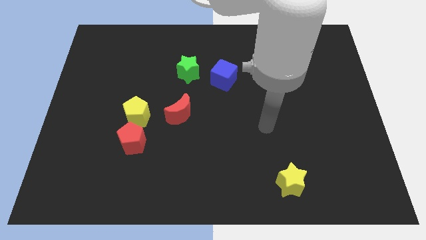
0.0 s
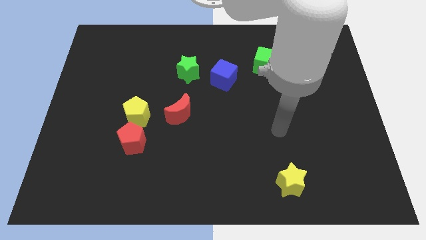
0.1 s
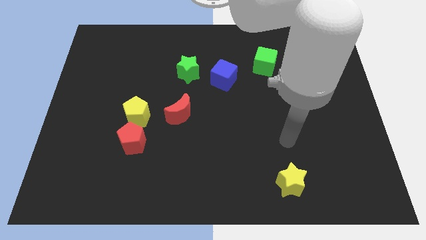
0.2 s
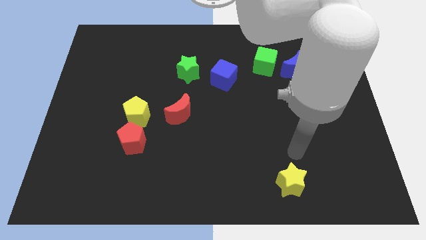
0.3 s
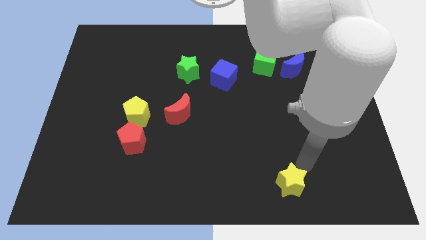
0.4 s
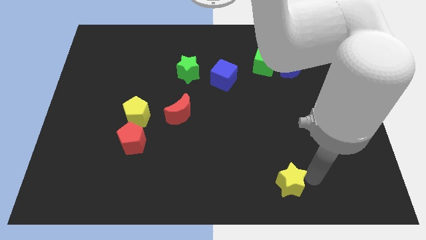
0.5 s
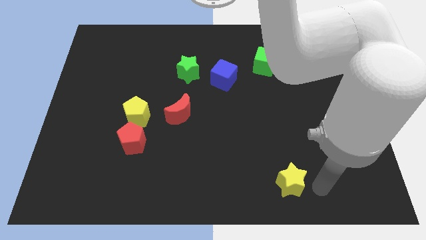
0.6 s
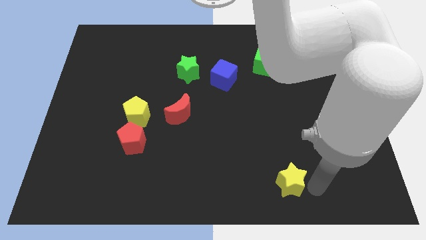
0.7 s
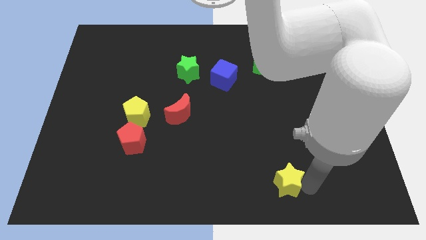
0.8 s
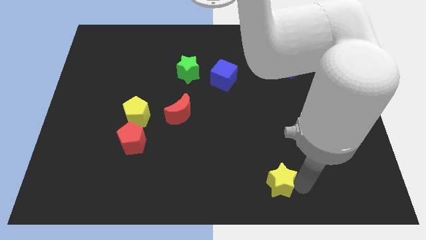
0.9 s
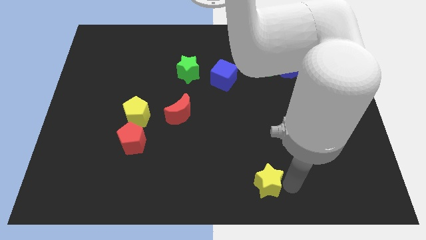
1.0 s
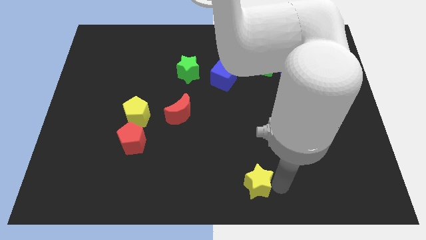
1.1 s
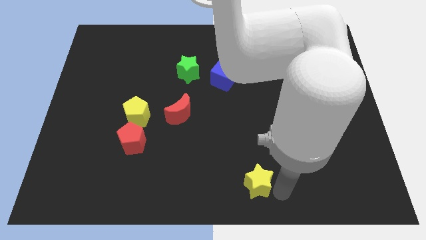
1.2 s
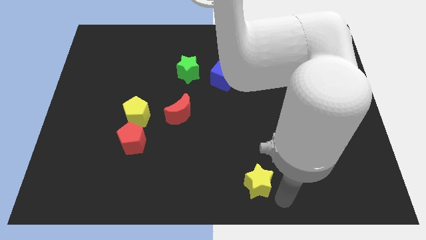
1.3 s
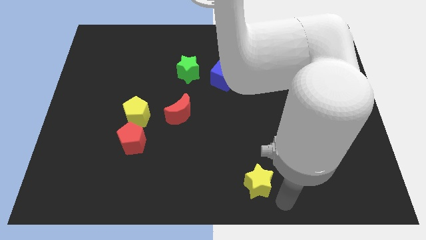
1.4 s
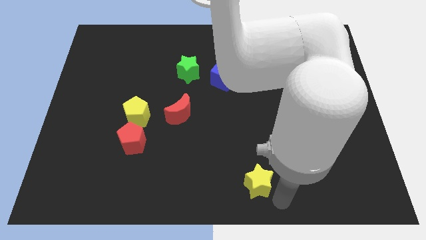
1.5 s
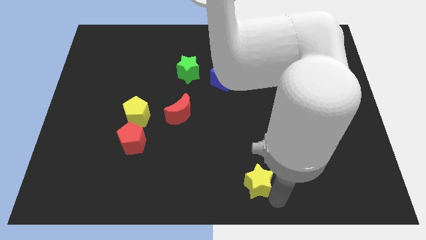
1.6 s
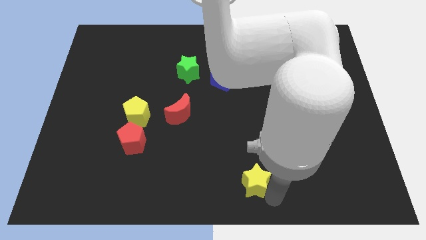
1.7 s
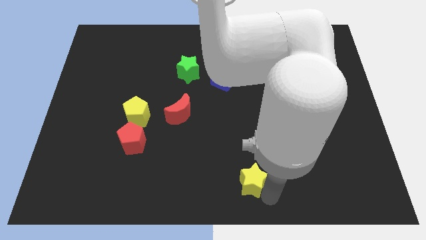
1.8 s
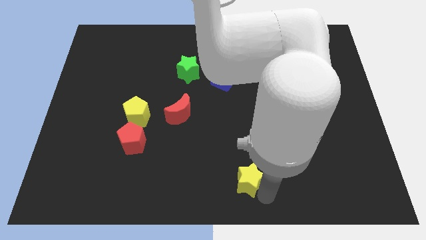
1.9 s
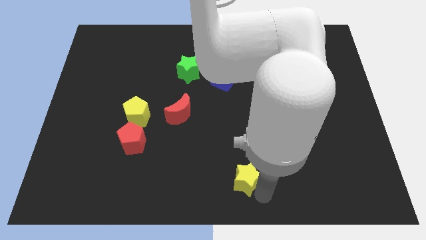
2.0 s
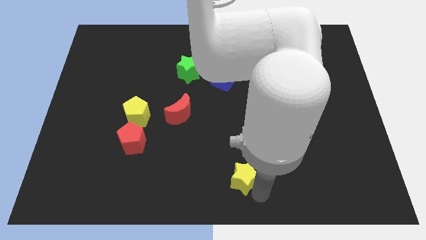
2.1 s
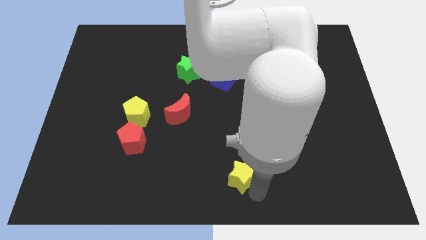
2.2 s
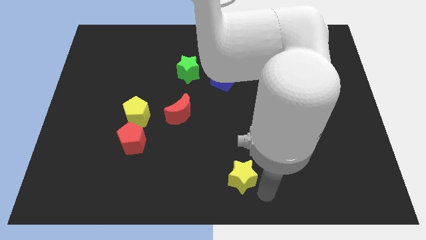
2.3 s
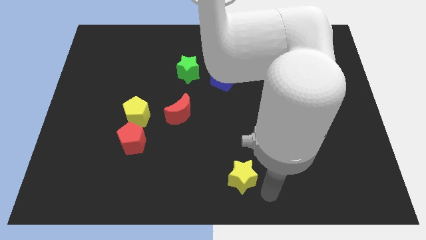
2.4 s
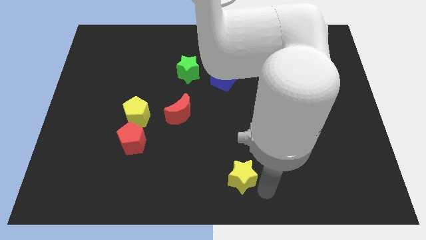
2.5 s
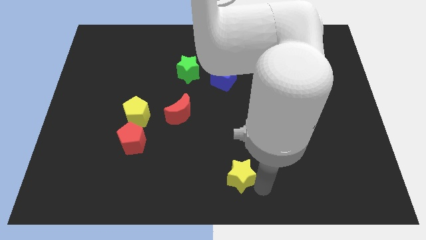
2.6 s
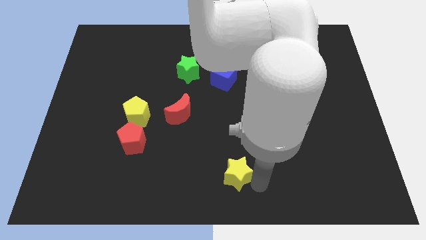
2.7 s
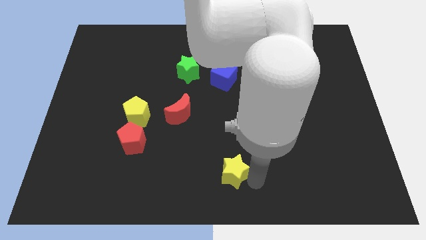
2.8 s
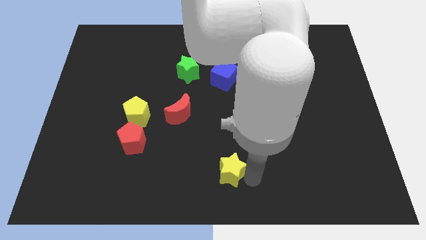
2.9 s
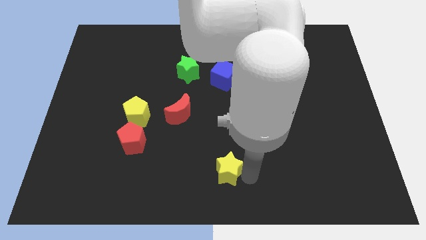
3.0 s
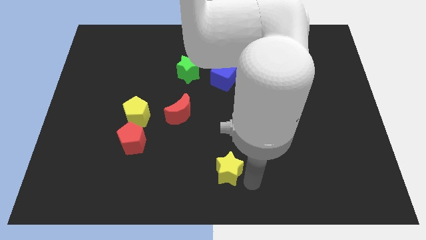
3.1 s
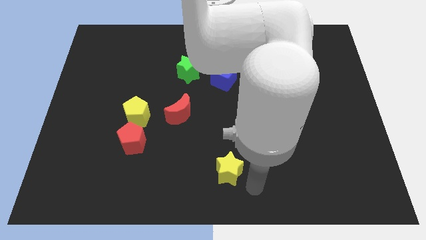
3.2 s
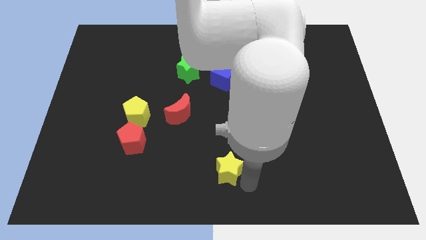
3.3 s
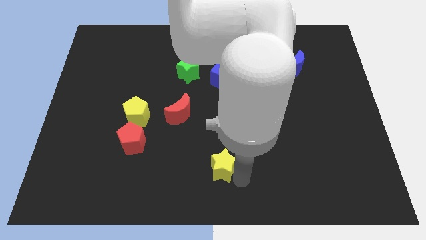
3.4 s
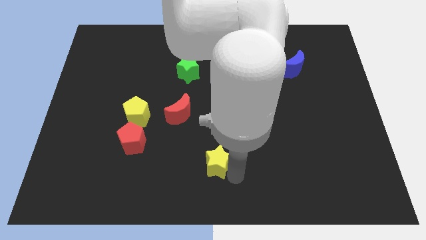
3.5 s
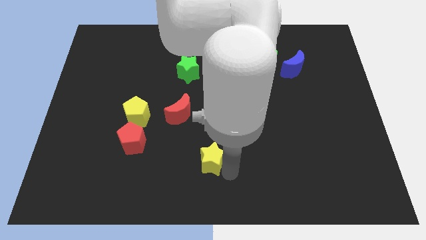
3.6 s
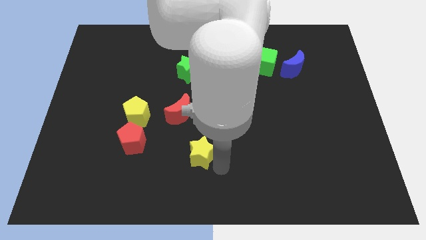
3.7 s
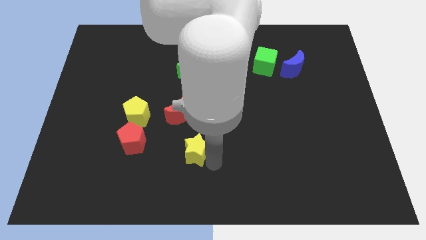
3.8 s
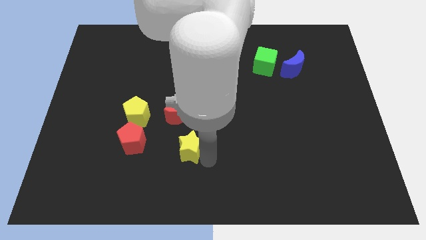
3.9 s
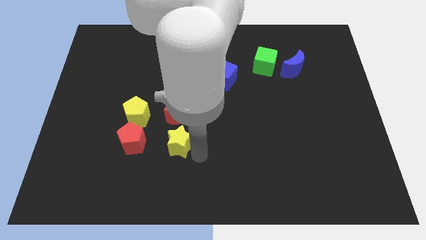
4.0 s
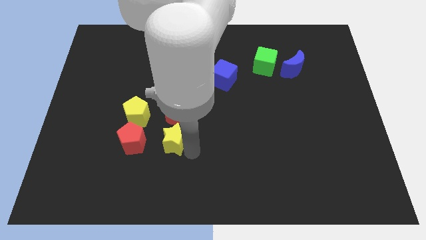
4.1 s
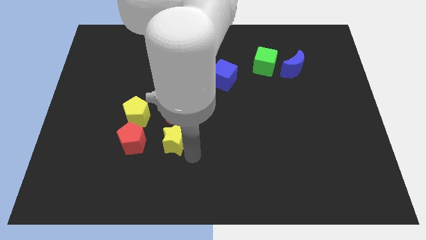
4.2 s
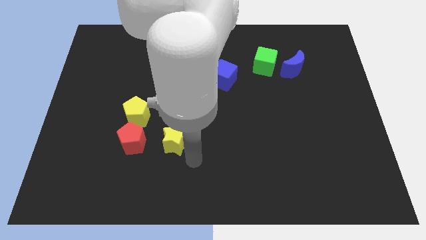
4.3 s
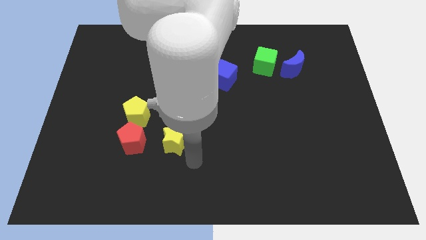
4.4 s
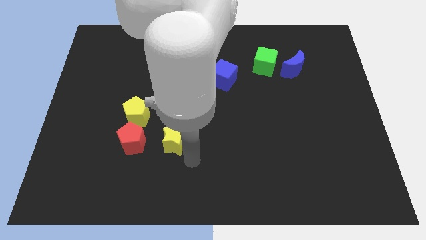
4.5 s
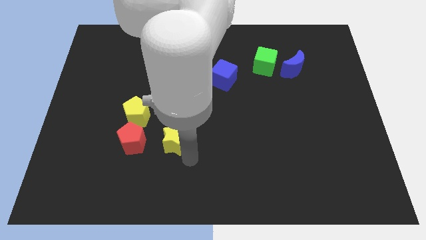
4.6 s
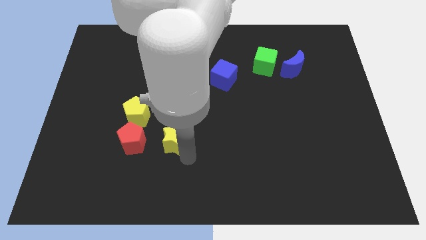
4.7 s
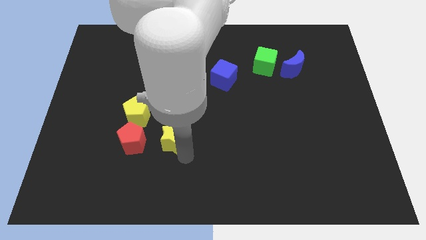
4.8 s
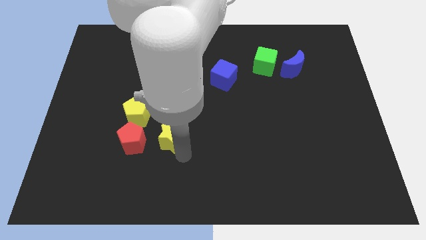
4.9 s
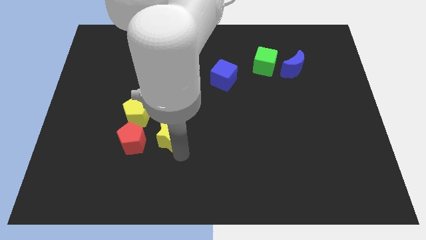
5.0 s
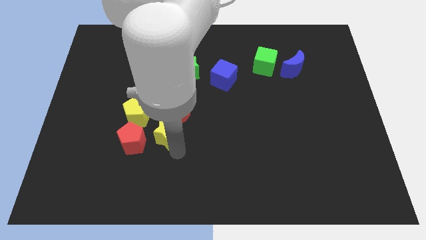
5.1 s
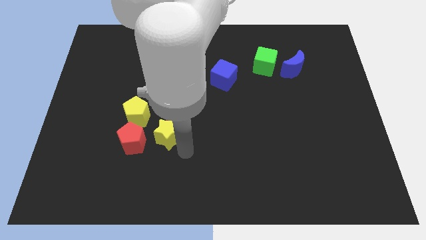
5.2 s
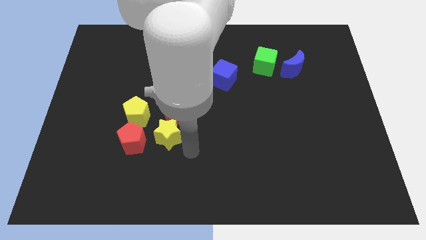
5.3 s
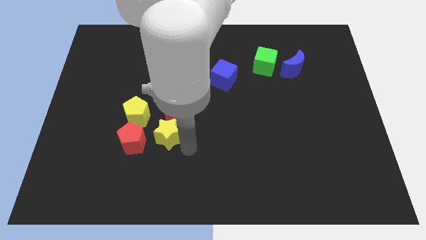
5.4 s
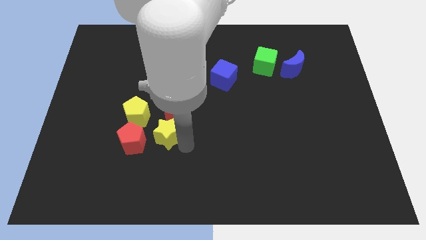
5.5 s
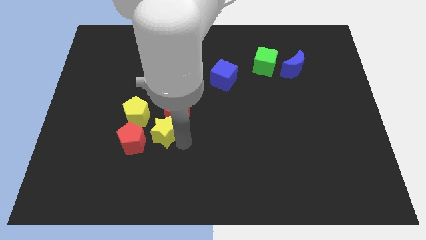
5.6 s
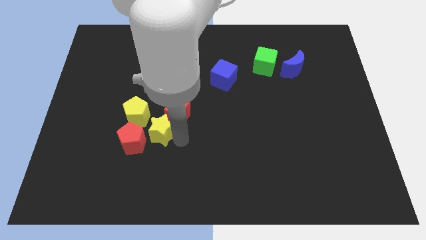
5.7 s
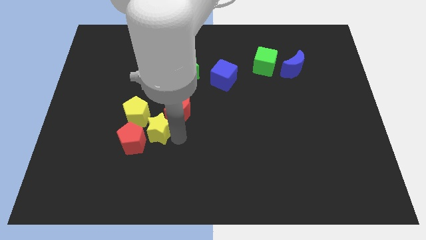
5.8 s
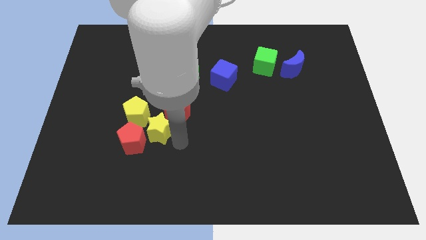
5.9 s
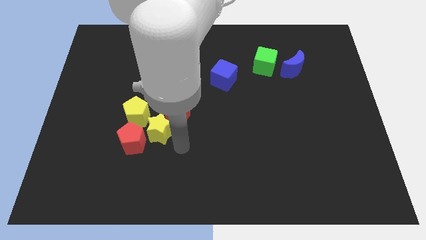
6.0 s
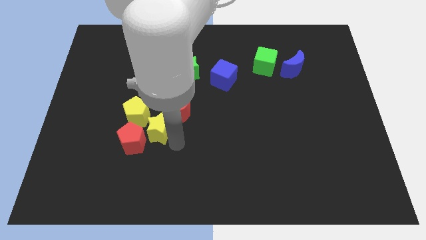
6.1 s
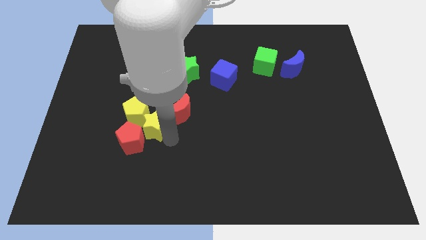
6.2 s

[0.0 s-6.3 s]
push the yellow star to the yellow pentagon

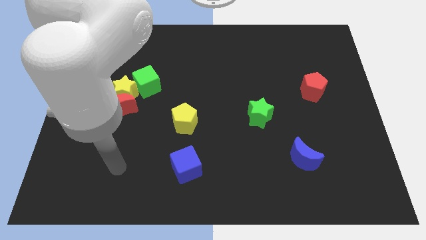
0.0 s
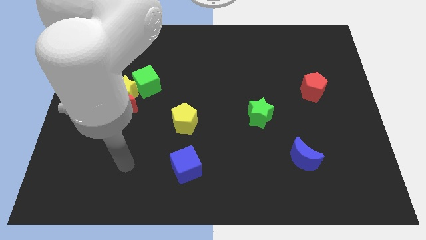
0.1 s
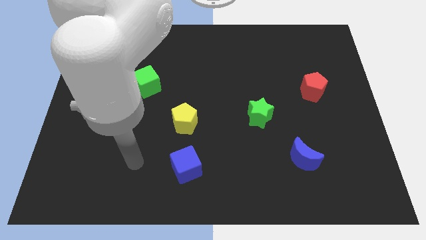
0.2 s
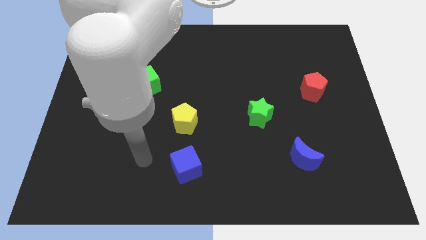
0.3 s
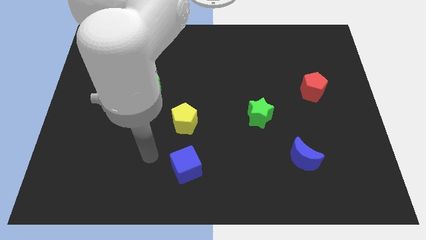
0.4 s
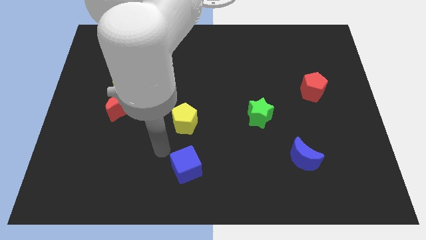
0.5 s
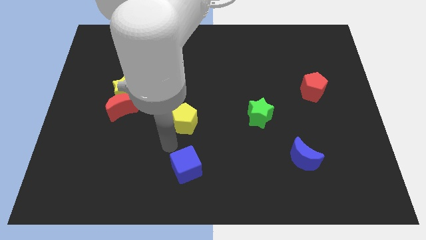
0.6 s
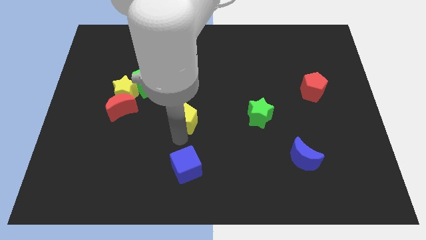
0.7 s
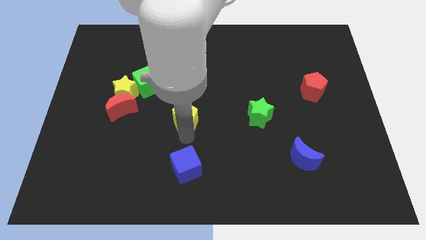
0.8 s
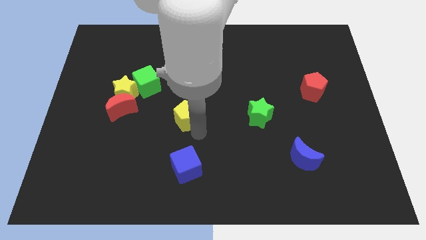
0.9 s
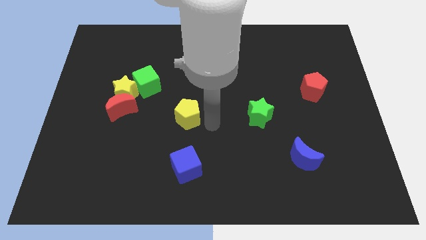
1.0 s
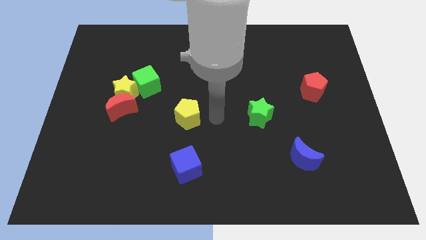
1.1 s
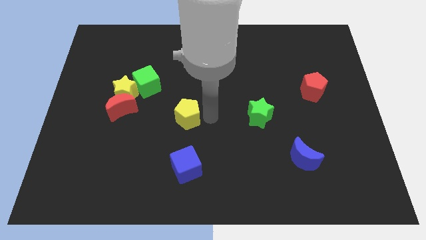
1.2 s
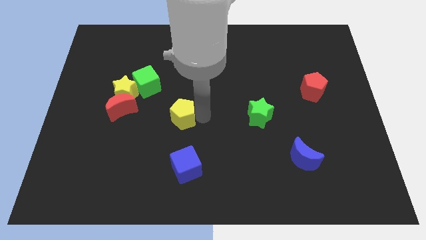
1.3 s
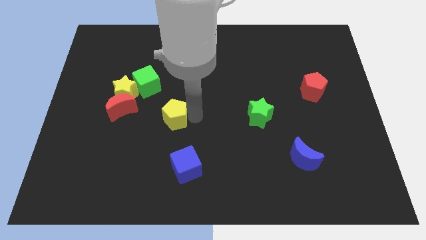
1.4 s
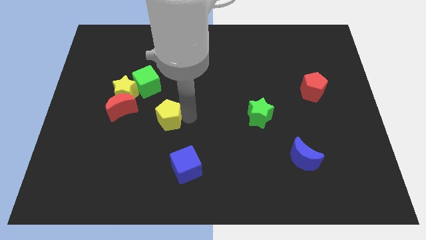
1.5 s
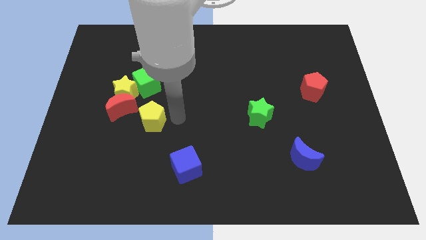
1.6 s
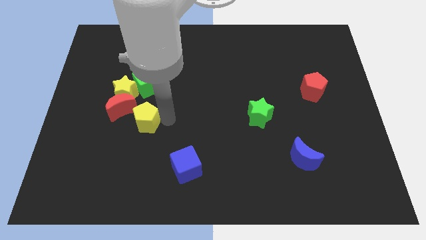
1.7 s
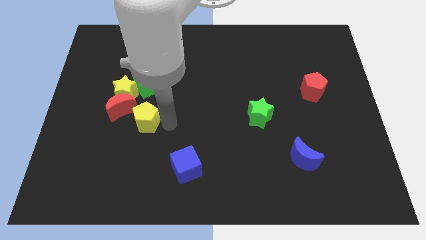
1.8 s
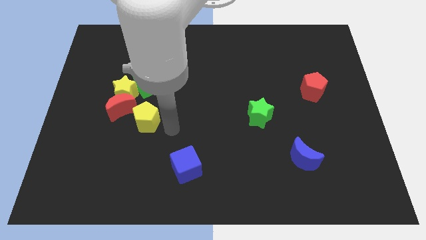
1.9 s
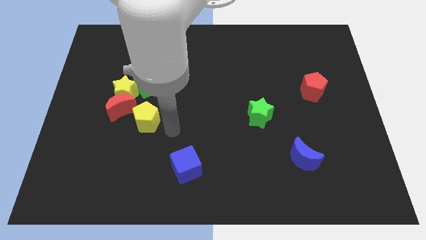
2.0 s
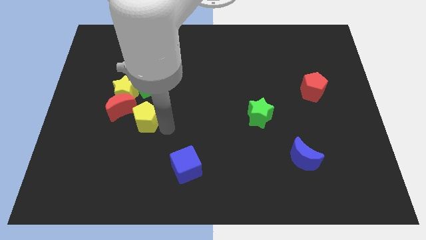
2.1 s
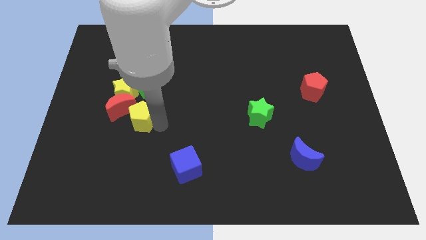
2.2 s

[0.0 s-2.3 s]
put the yellow pentagon to the red moon
